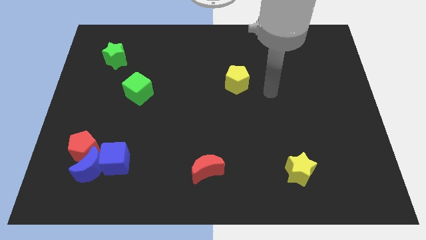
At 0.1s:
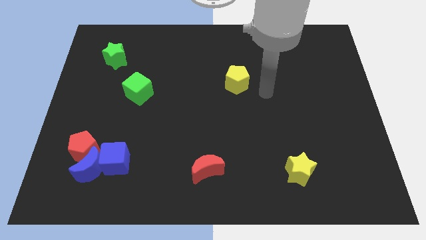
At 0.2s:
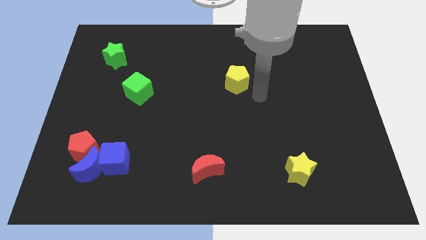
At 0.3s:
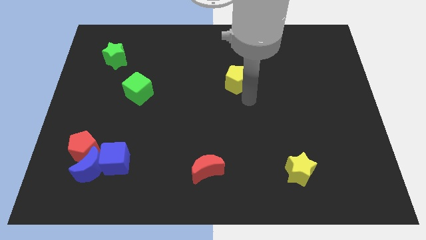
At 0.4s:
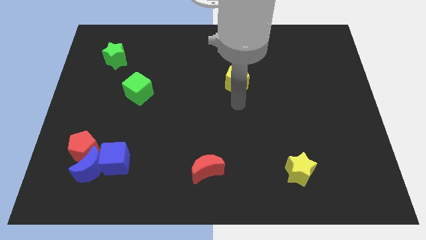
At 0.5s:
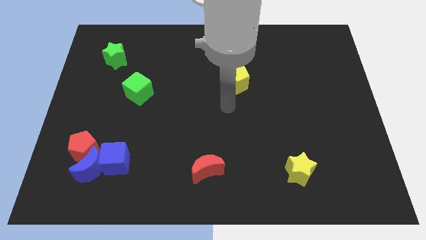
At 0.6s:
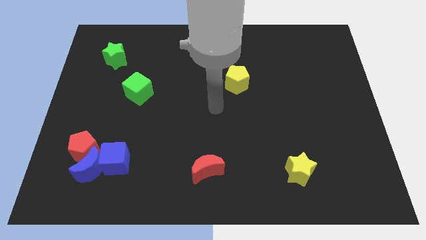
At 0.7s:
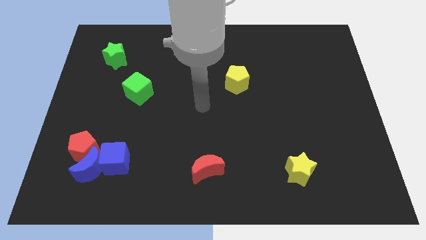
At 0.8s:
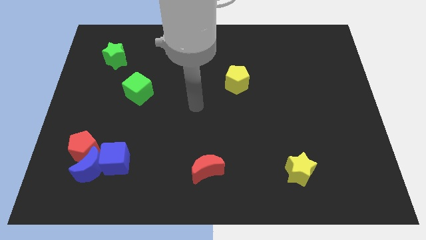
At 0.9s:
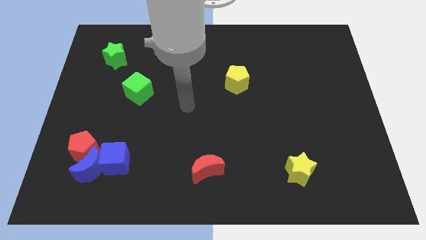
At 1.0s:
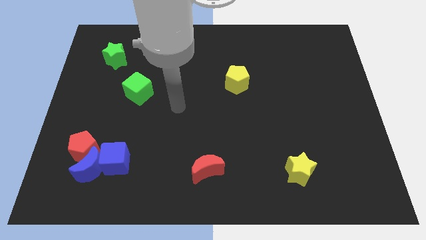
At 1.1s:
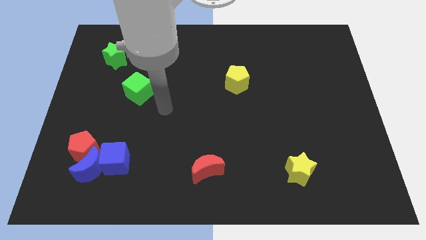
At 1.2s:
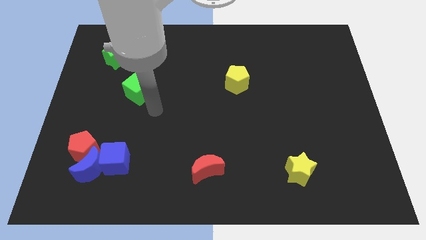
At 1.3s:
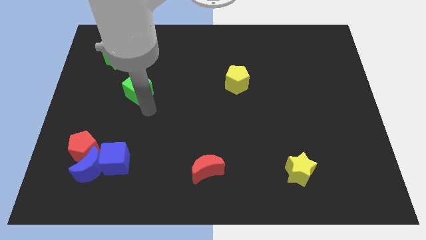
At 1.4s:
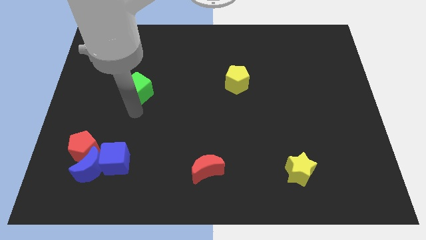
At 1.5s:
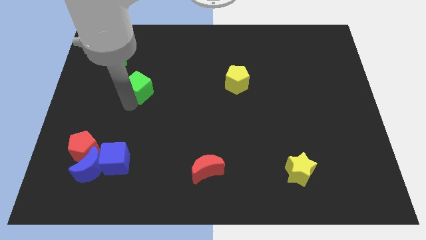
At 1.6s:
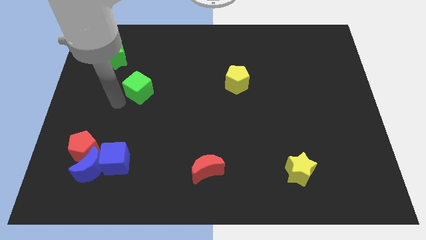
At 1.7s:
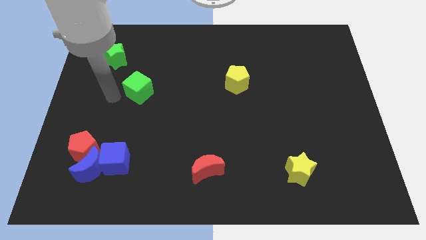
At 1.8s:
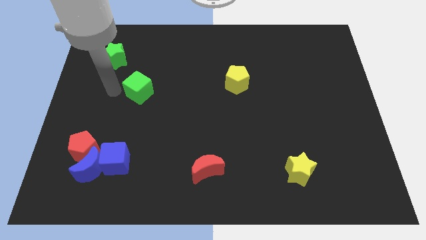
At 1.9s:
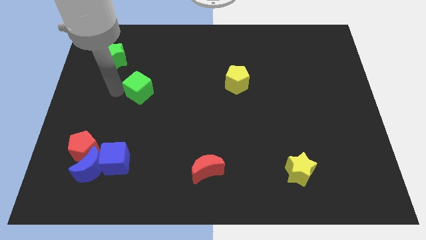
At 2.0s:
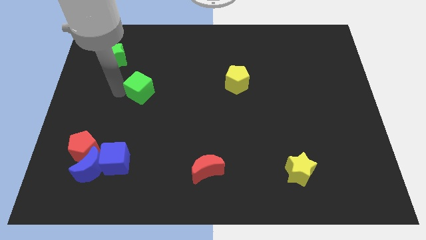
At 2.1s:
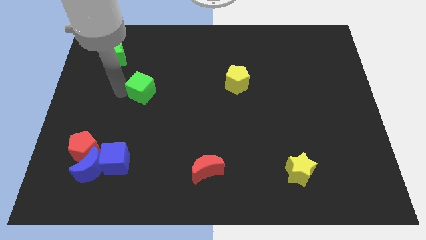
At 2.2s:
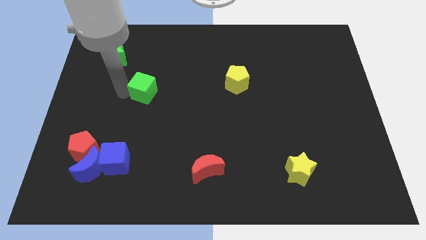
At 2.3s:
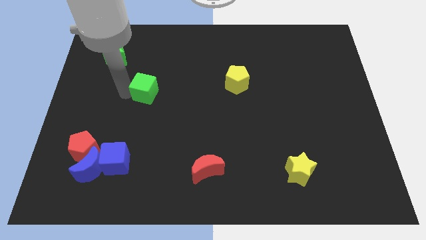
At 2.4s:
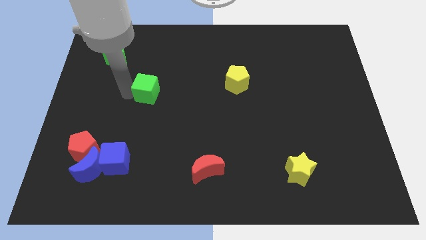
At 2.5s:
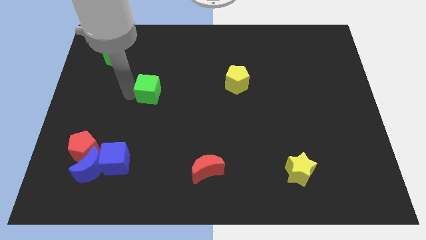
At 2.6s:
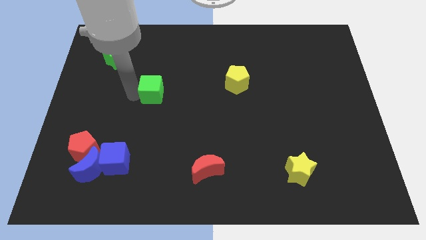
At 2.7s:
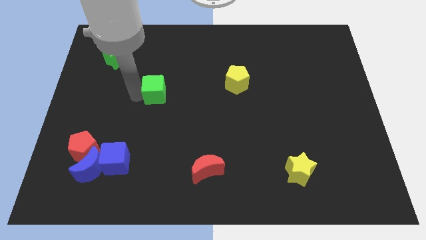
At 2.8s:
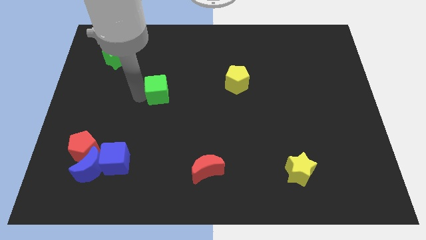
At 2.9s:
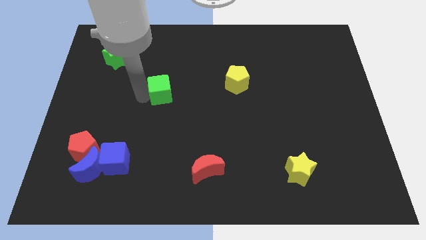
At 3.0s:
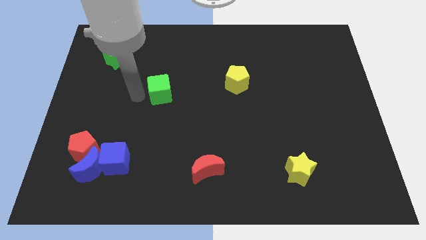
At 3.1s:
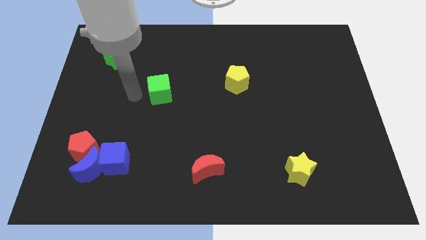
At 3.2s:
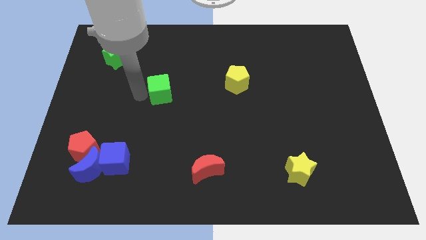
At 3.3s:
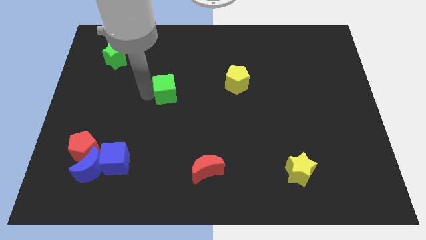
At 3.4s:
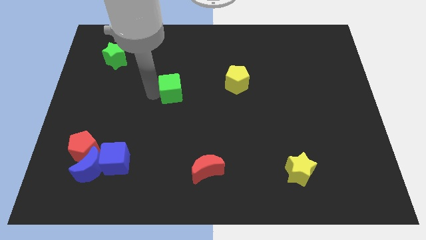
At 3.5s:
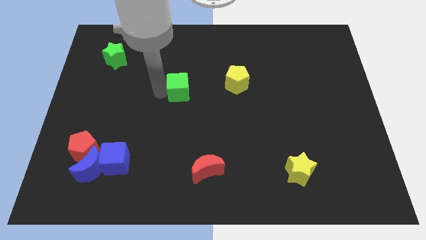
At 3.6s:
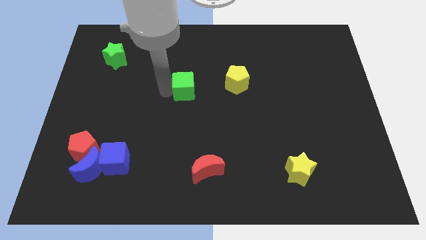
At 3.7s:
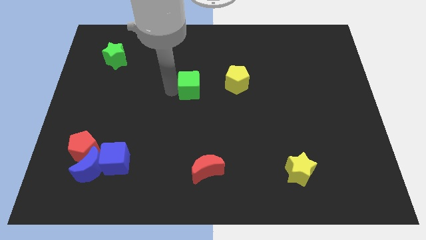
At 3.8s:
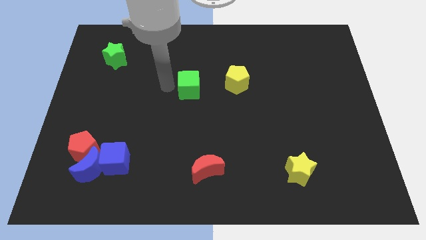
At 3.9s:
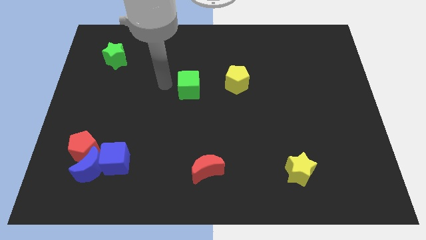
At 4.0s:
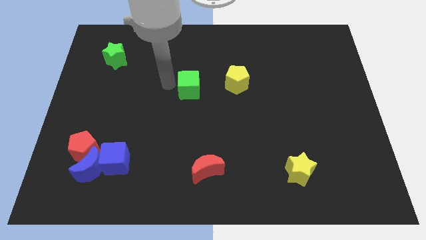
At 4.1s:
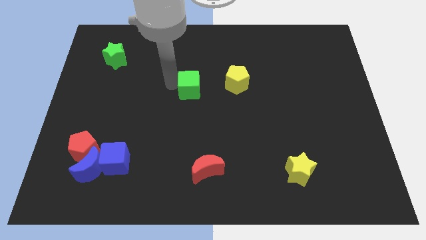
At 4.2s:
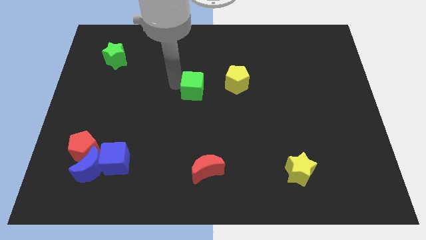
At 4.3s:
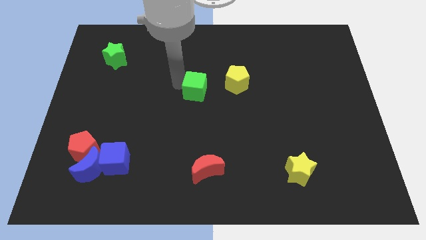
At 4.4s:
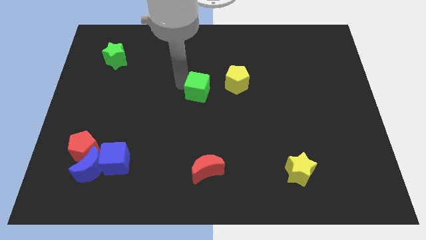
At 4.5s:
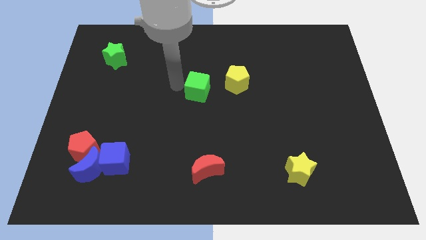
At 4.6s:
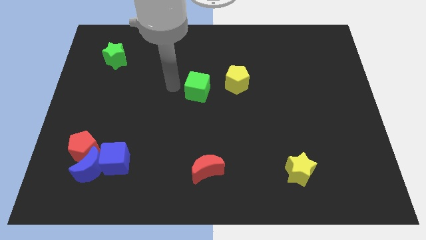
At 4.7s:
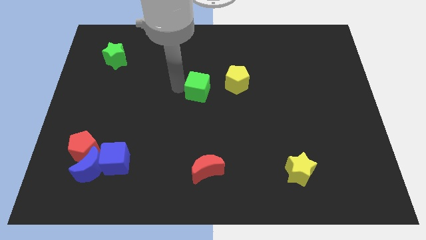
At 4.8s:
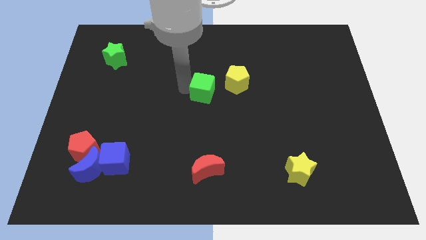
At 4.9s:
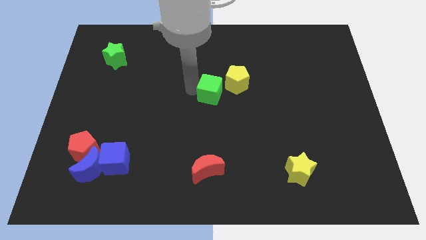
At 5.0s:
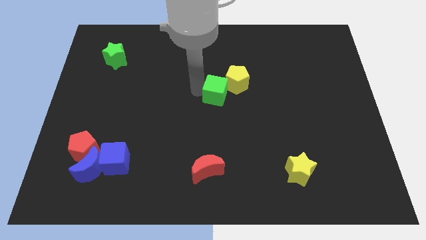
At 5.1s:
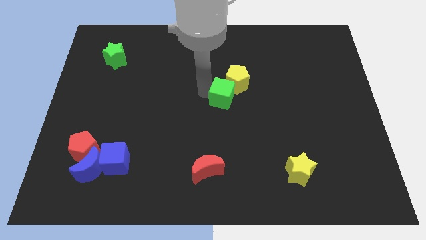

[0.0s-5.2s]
move the green cube to the right

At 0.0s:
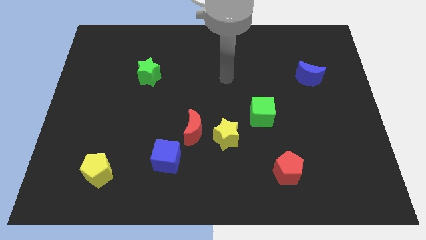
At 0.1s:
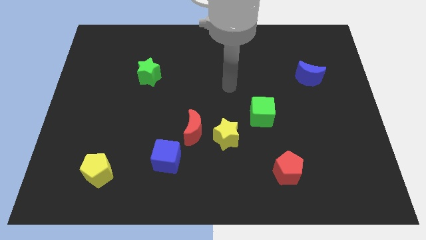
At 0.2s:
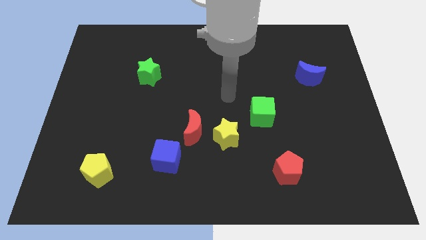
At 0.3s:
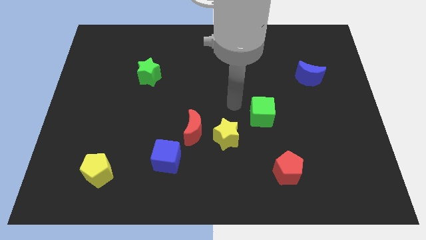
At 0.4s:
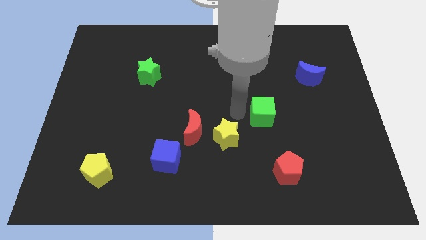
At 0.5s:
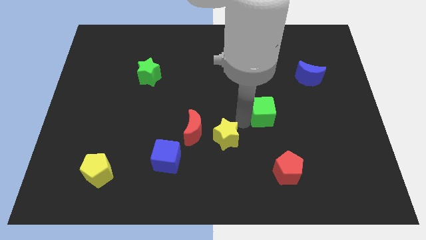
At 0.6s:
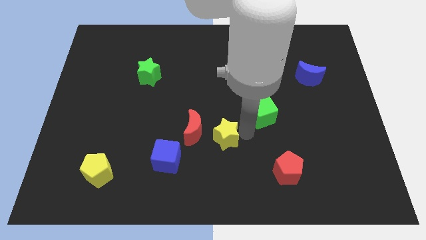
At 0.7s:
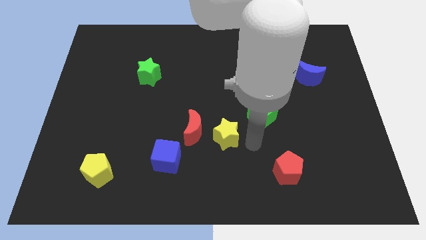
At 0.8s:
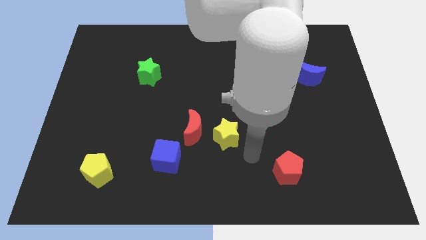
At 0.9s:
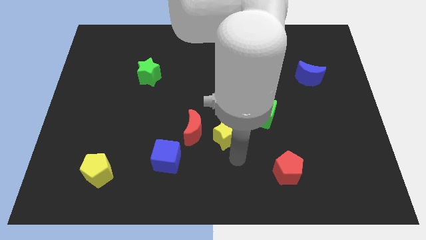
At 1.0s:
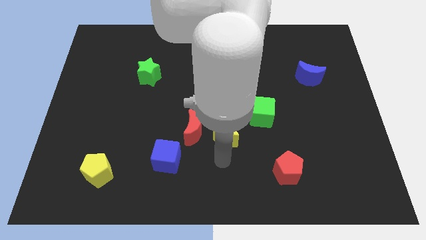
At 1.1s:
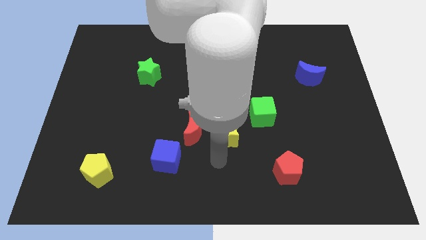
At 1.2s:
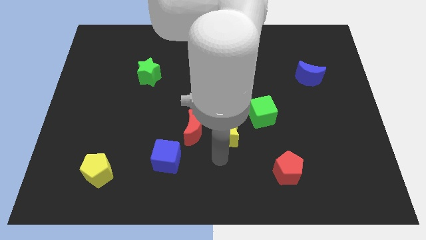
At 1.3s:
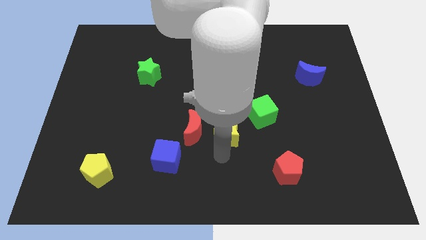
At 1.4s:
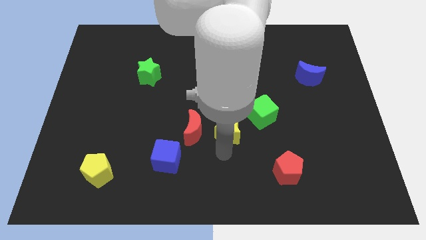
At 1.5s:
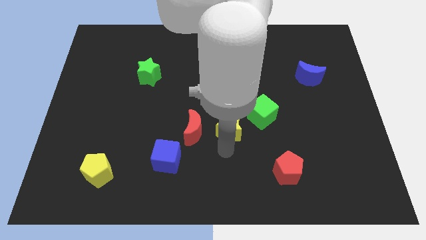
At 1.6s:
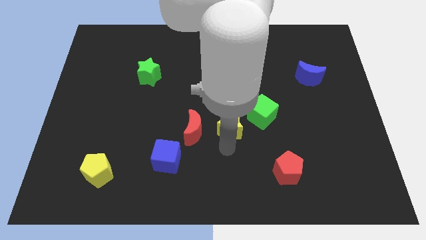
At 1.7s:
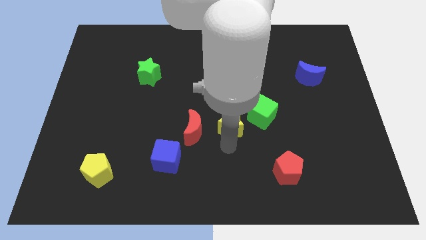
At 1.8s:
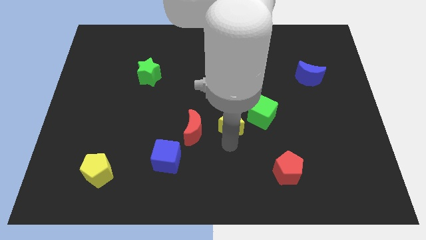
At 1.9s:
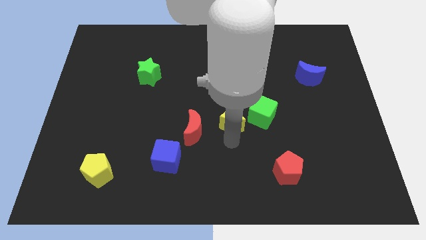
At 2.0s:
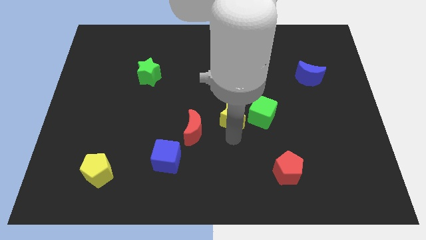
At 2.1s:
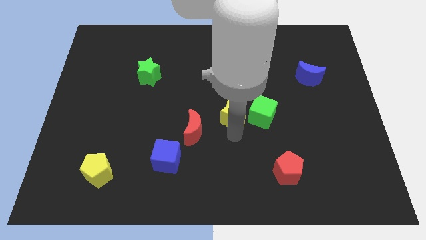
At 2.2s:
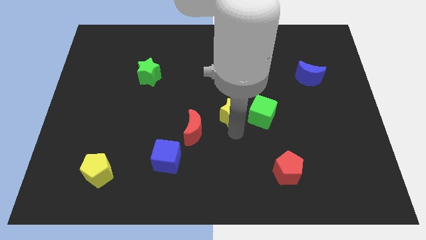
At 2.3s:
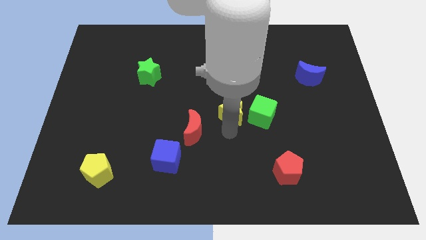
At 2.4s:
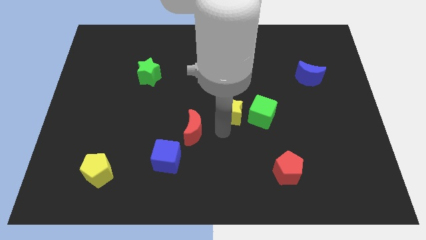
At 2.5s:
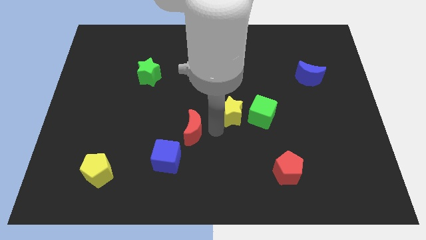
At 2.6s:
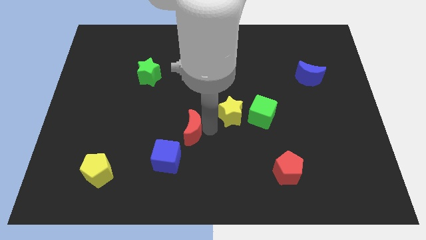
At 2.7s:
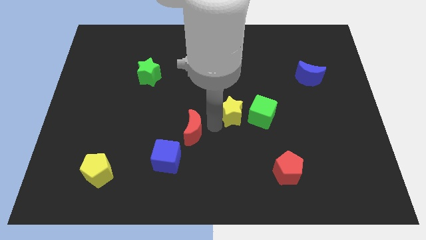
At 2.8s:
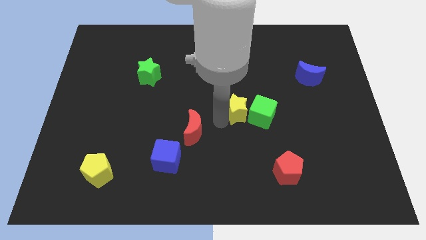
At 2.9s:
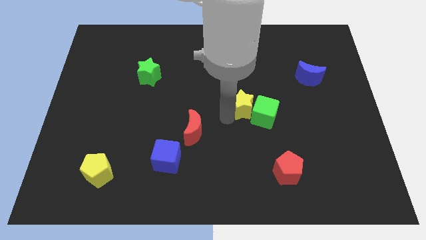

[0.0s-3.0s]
slightly push the yellow star diagonally upwards and to the right
